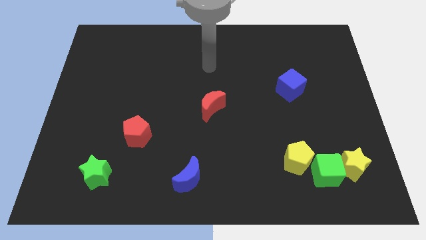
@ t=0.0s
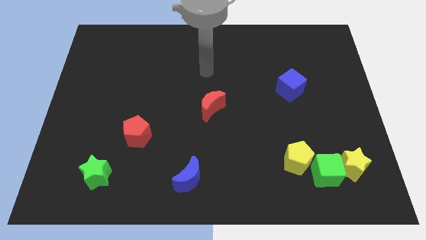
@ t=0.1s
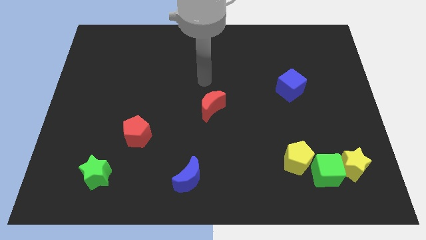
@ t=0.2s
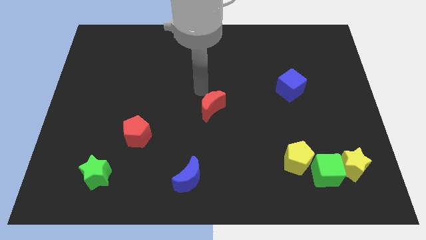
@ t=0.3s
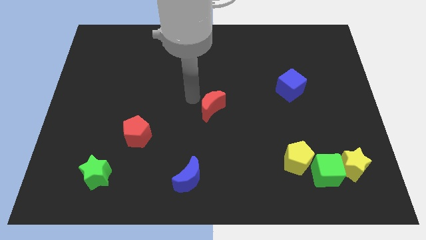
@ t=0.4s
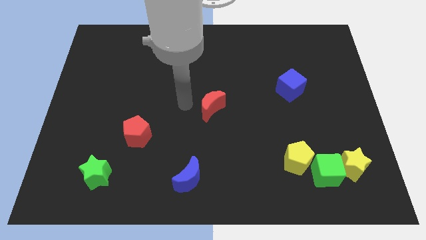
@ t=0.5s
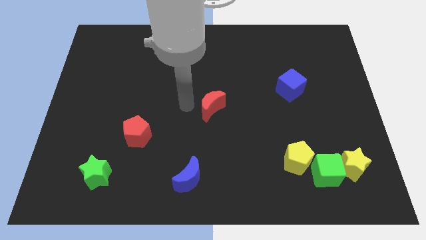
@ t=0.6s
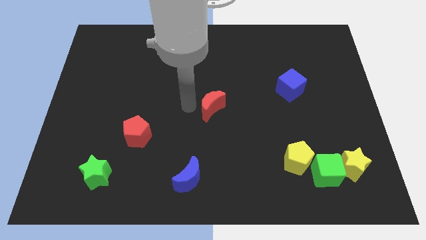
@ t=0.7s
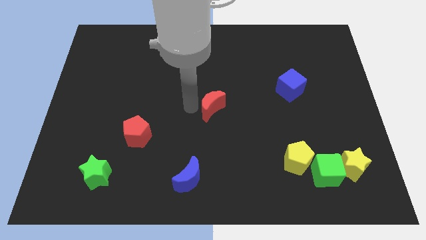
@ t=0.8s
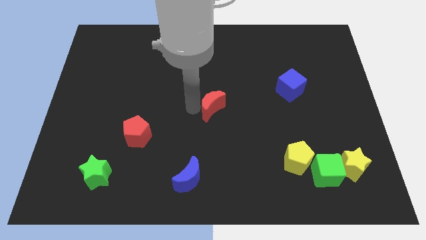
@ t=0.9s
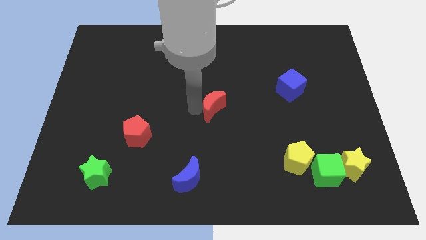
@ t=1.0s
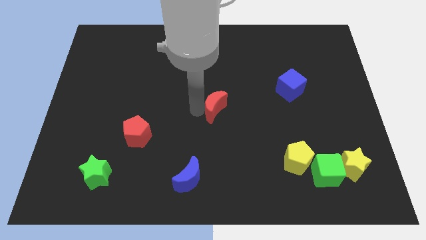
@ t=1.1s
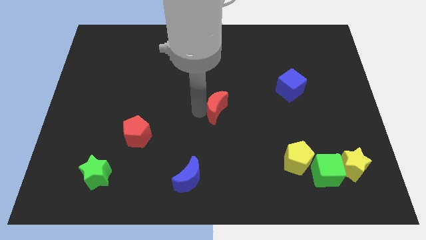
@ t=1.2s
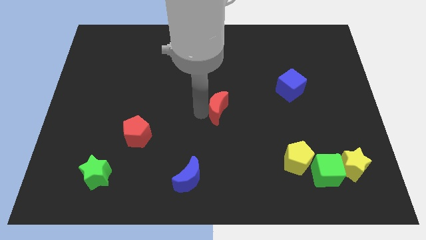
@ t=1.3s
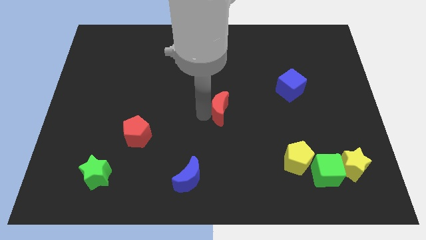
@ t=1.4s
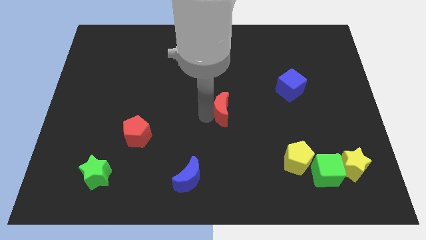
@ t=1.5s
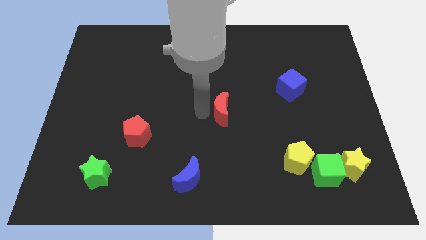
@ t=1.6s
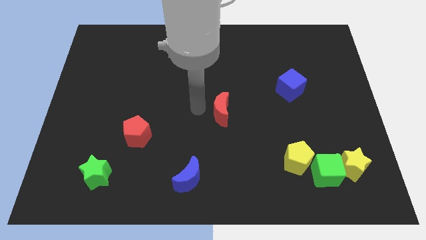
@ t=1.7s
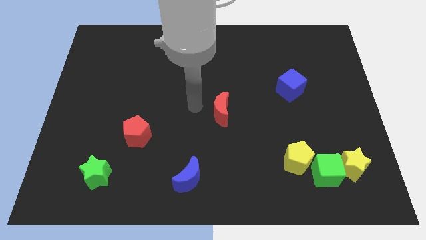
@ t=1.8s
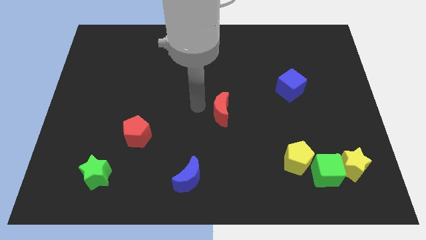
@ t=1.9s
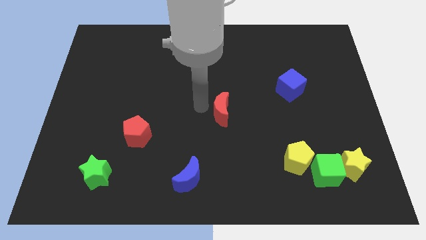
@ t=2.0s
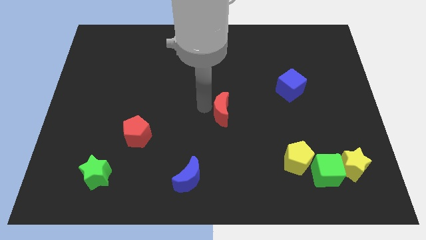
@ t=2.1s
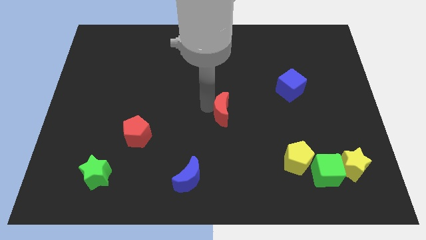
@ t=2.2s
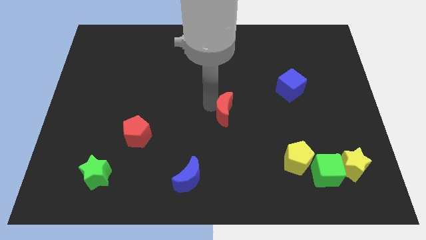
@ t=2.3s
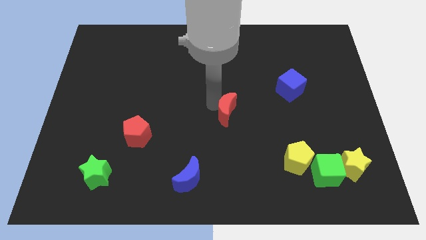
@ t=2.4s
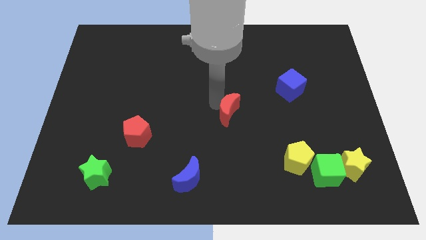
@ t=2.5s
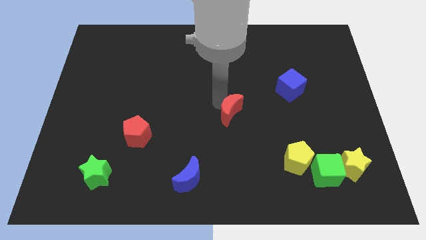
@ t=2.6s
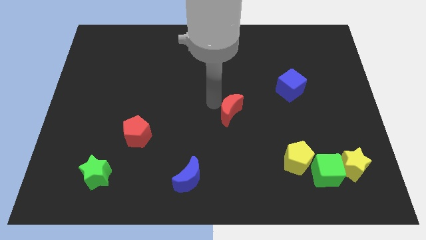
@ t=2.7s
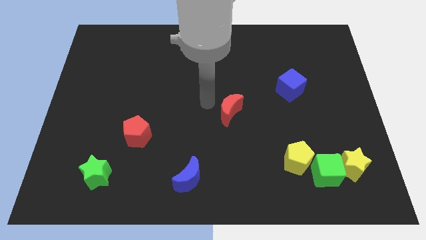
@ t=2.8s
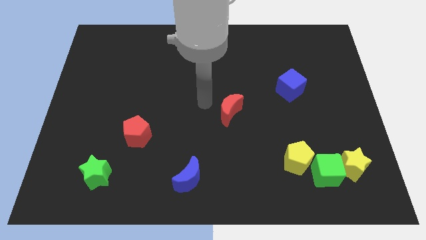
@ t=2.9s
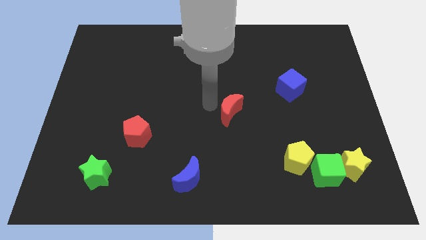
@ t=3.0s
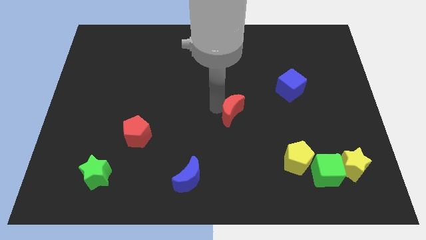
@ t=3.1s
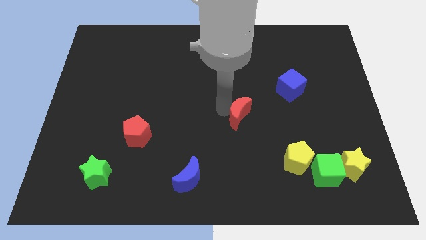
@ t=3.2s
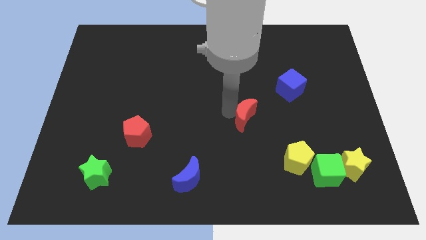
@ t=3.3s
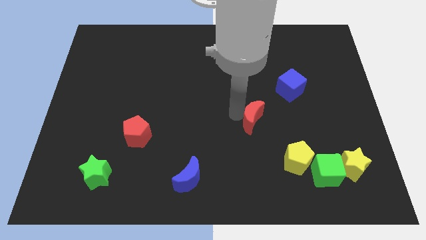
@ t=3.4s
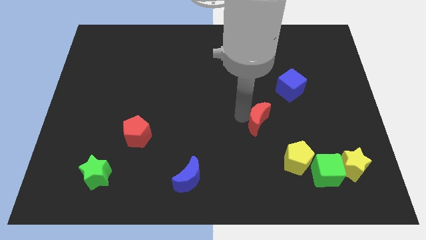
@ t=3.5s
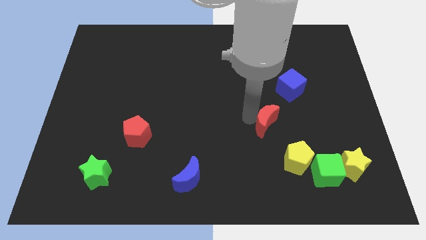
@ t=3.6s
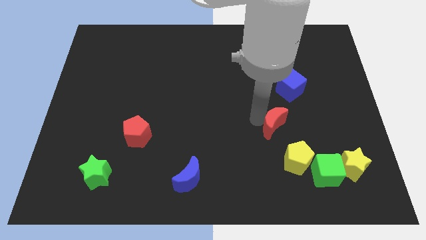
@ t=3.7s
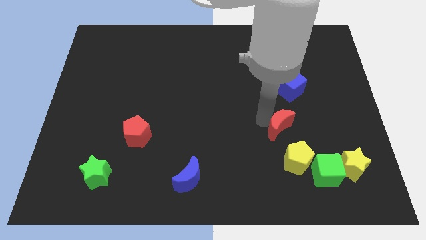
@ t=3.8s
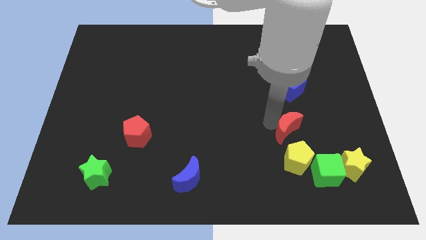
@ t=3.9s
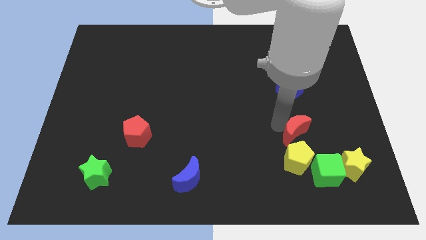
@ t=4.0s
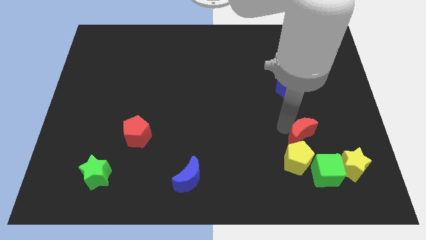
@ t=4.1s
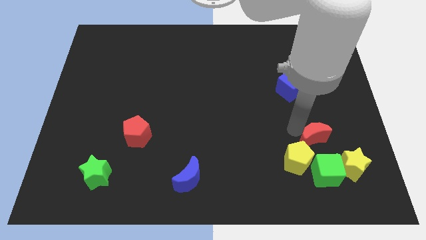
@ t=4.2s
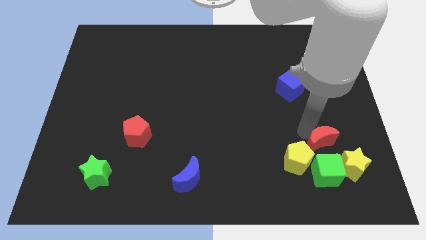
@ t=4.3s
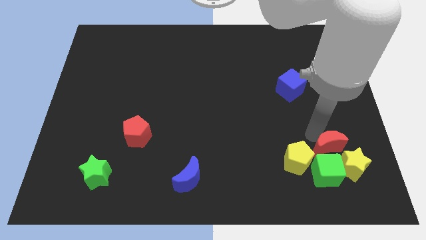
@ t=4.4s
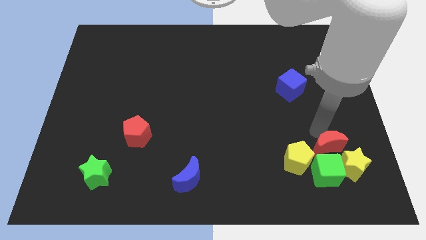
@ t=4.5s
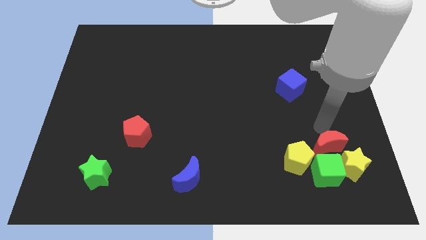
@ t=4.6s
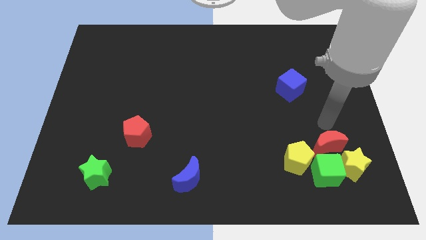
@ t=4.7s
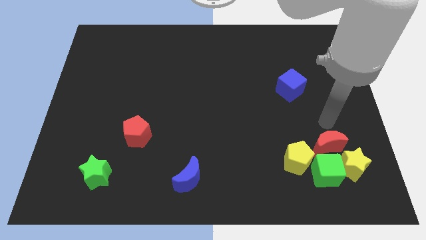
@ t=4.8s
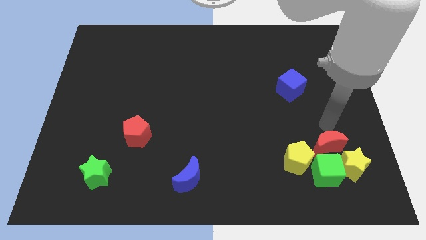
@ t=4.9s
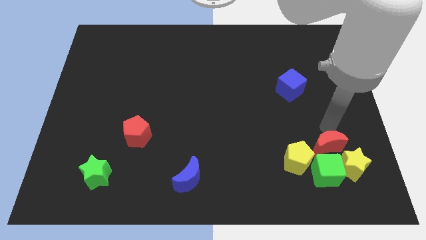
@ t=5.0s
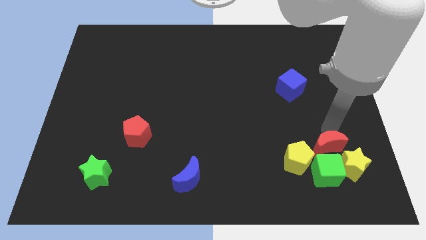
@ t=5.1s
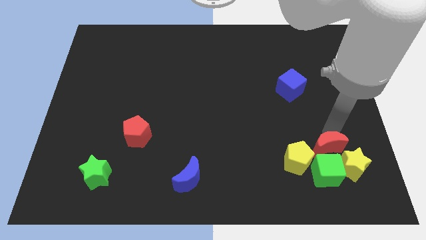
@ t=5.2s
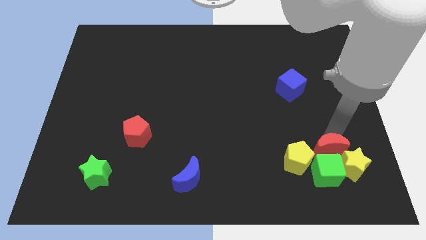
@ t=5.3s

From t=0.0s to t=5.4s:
put the red moon next to the green cube

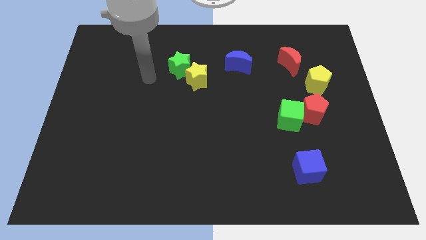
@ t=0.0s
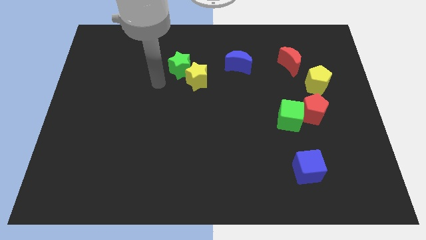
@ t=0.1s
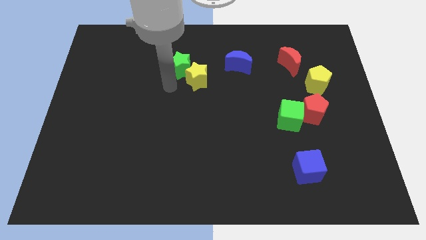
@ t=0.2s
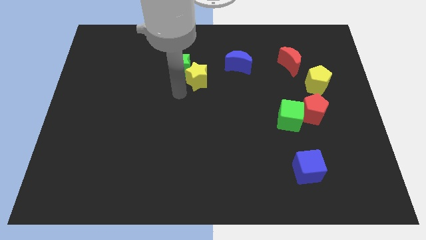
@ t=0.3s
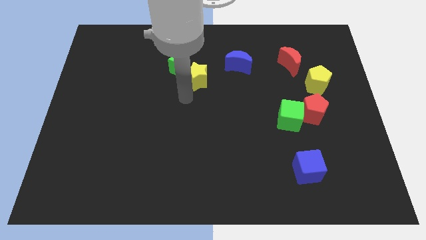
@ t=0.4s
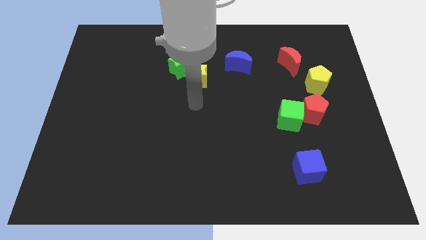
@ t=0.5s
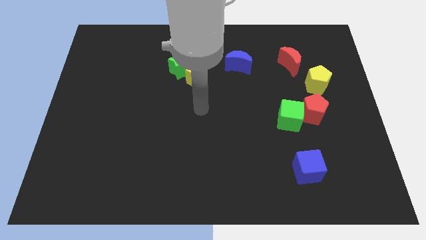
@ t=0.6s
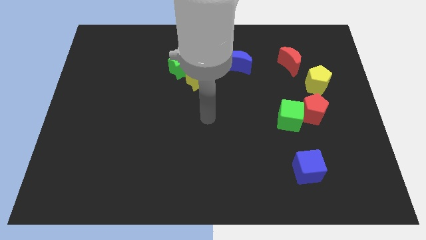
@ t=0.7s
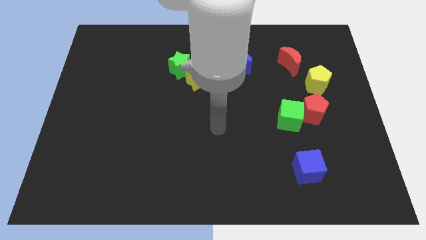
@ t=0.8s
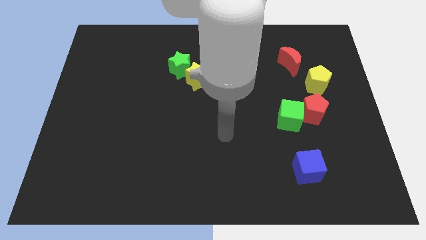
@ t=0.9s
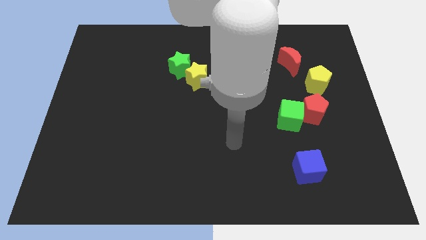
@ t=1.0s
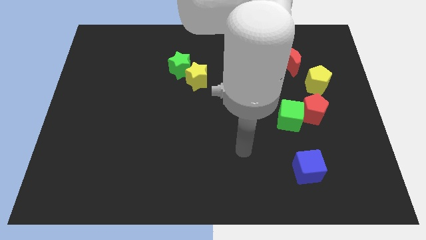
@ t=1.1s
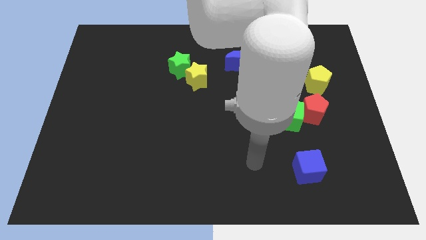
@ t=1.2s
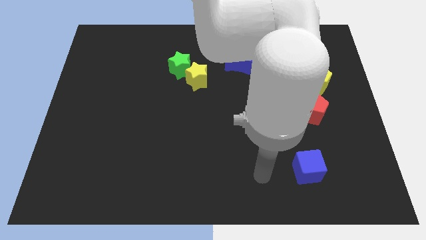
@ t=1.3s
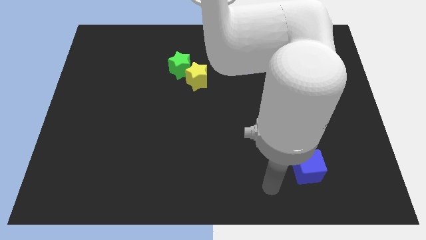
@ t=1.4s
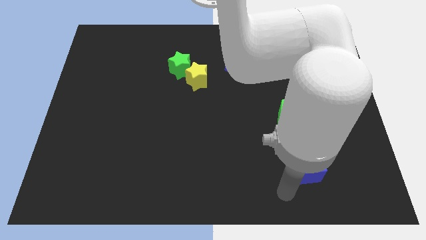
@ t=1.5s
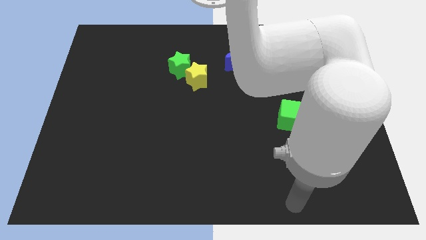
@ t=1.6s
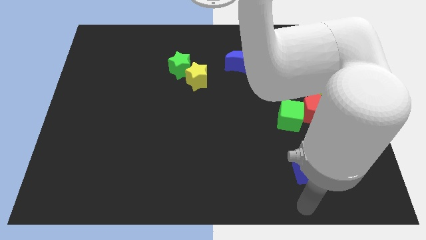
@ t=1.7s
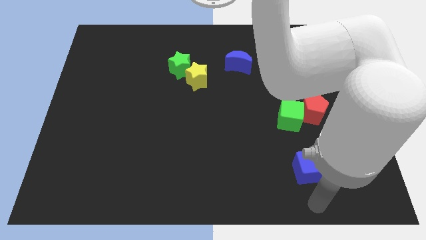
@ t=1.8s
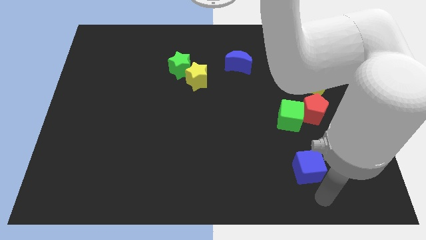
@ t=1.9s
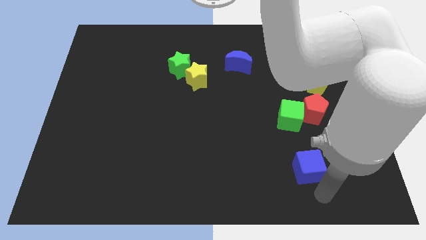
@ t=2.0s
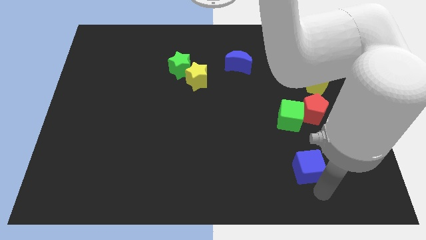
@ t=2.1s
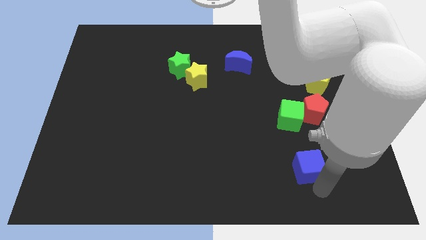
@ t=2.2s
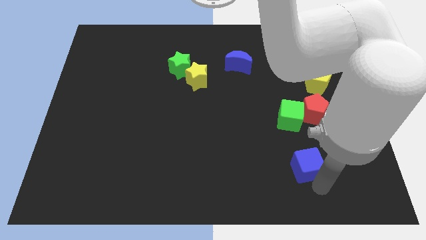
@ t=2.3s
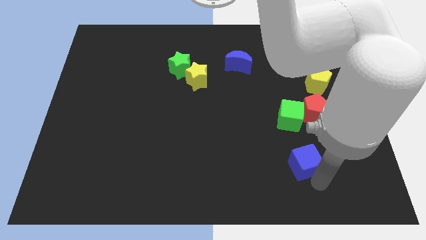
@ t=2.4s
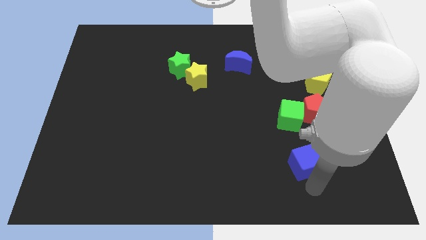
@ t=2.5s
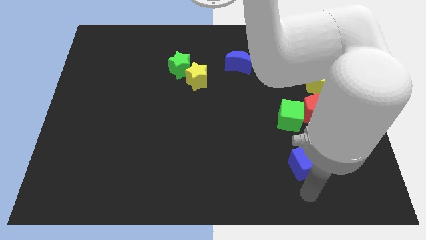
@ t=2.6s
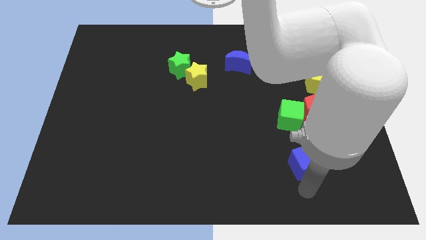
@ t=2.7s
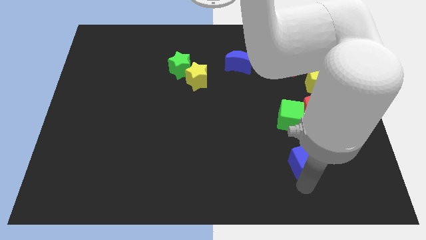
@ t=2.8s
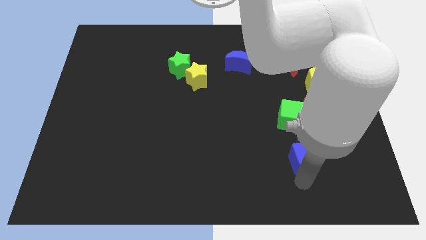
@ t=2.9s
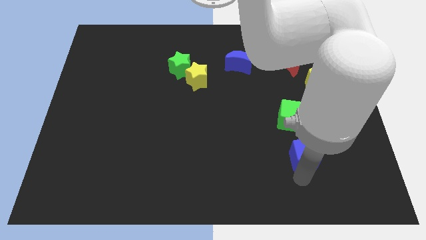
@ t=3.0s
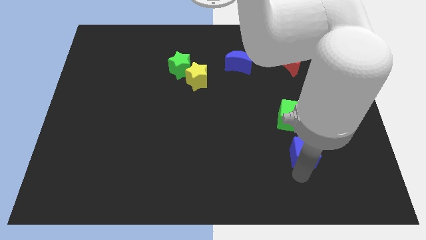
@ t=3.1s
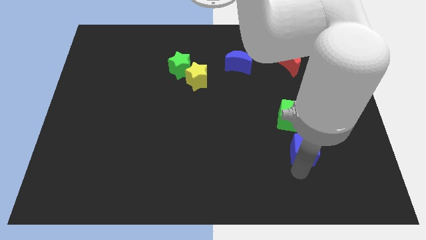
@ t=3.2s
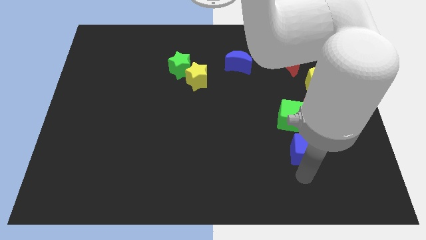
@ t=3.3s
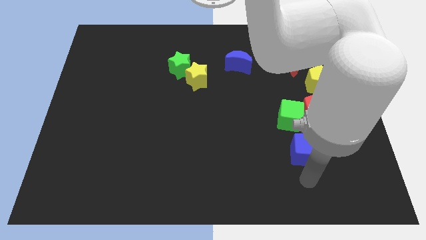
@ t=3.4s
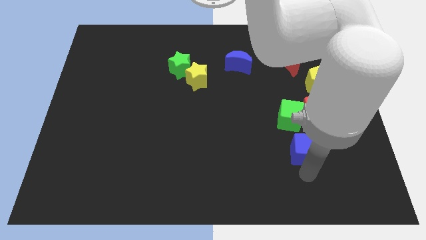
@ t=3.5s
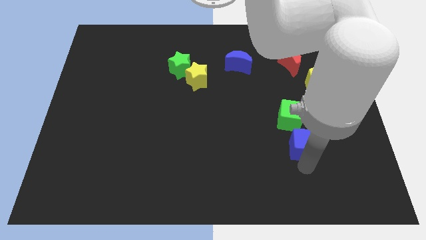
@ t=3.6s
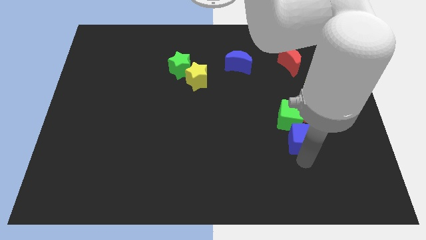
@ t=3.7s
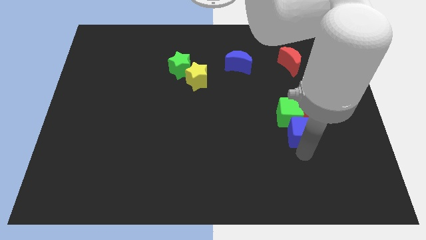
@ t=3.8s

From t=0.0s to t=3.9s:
slide the blue cube to the green cube
